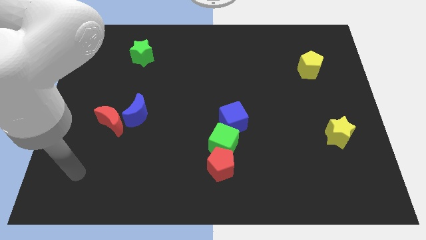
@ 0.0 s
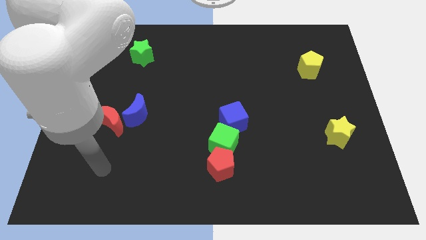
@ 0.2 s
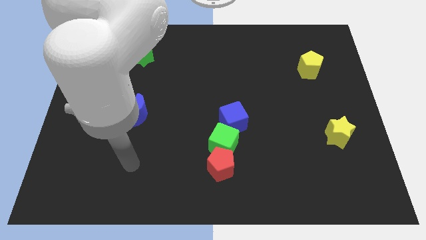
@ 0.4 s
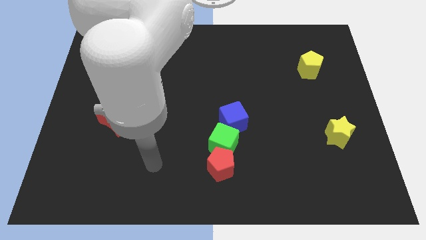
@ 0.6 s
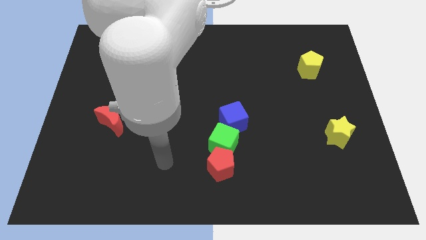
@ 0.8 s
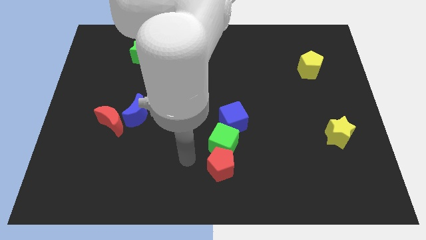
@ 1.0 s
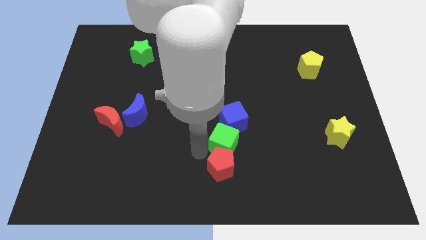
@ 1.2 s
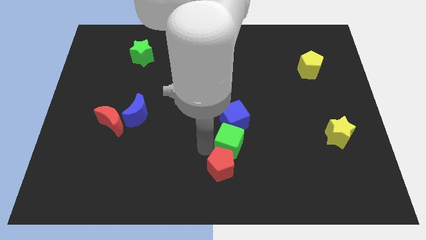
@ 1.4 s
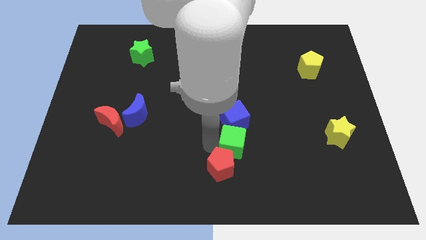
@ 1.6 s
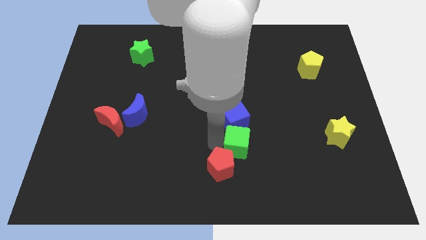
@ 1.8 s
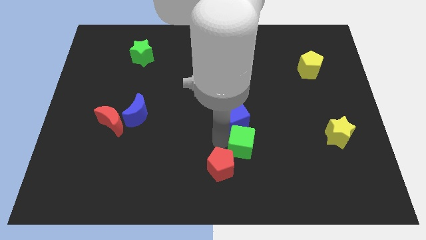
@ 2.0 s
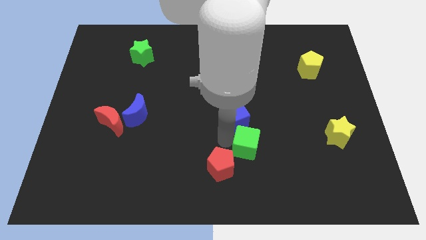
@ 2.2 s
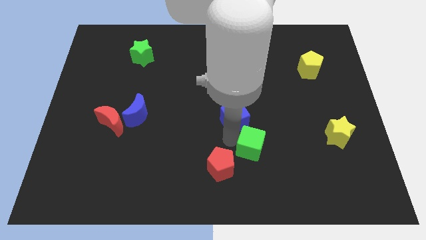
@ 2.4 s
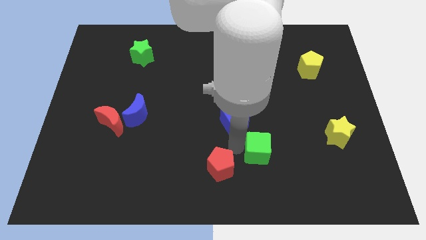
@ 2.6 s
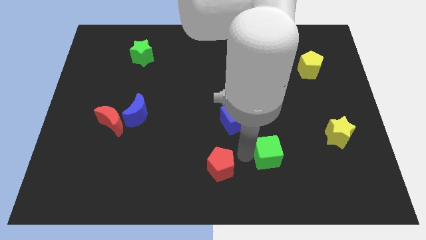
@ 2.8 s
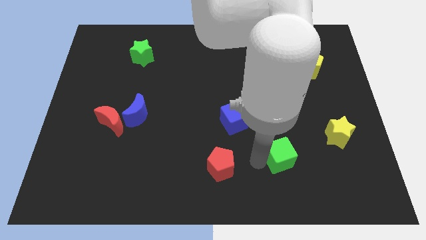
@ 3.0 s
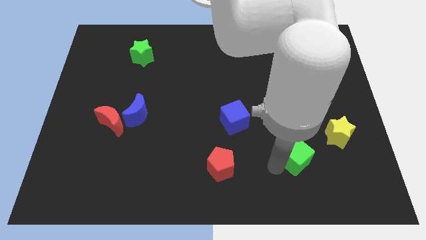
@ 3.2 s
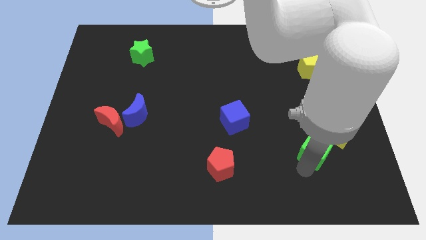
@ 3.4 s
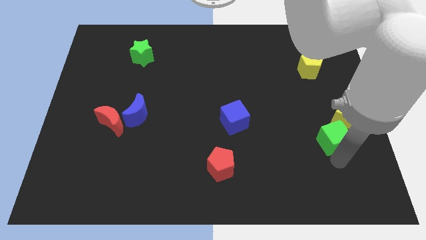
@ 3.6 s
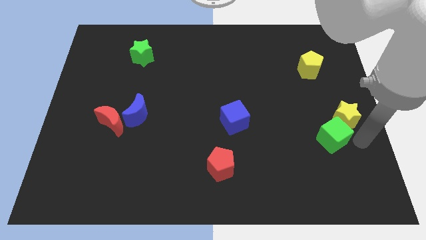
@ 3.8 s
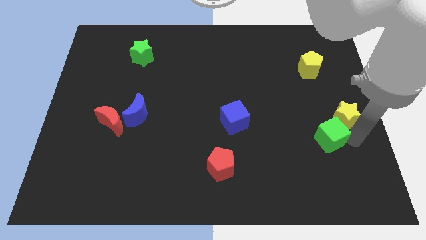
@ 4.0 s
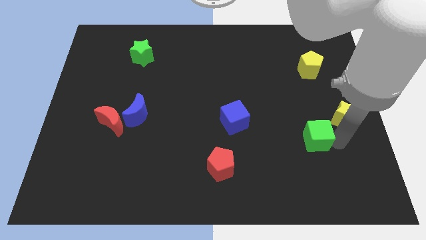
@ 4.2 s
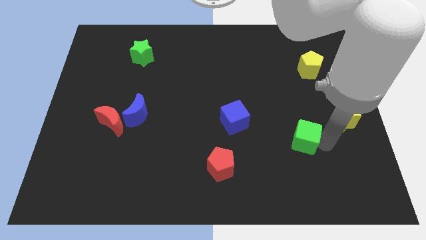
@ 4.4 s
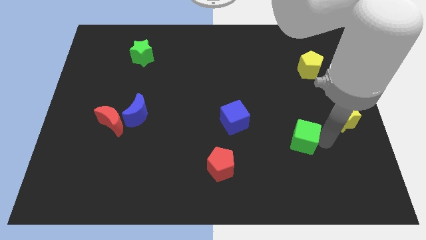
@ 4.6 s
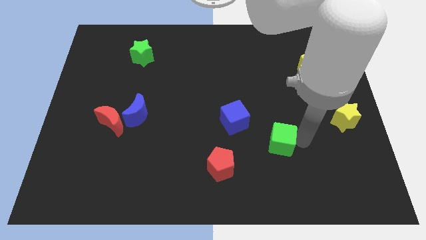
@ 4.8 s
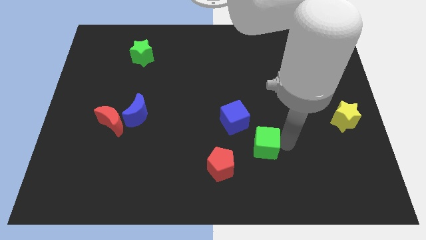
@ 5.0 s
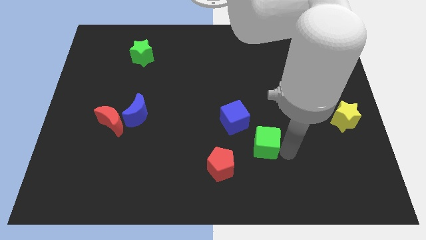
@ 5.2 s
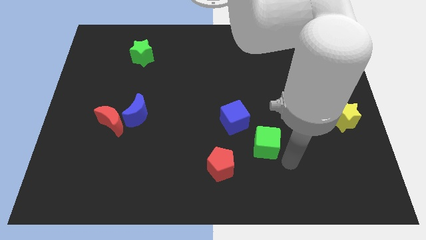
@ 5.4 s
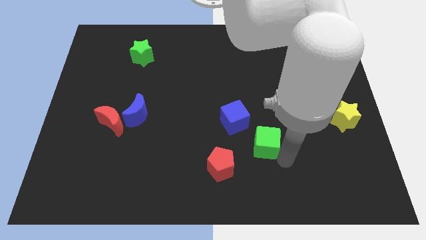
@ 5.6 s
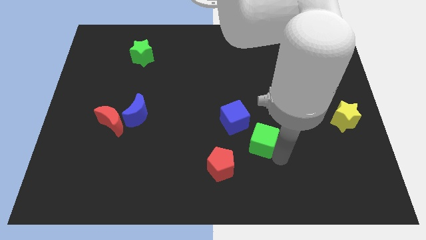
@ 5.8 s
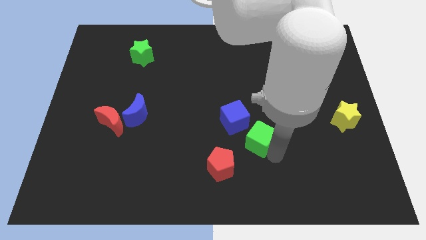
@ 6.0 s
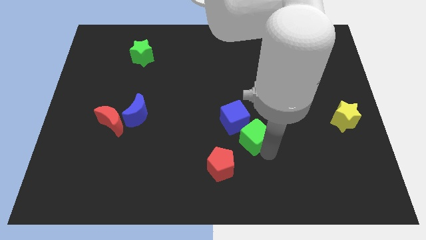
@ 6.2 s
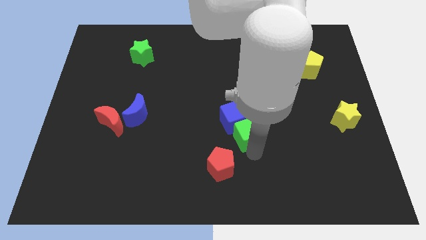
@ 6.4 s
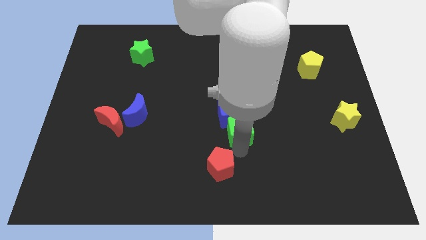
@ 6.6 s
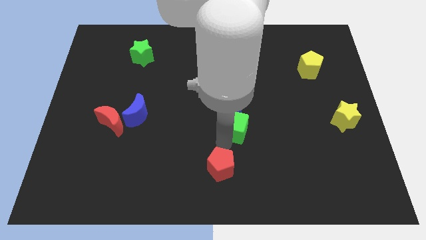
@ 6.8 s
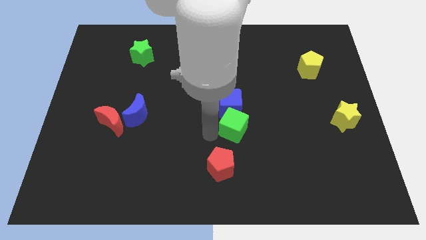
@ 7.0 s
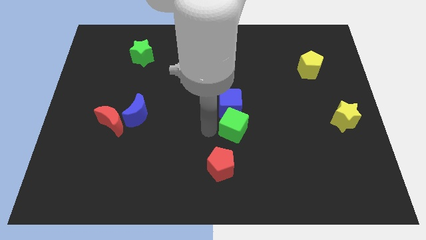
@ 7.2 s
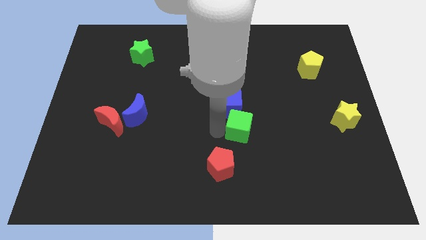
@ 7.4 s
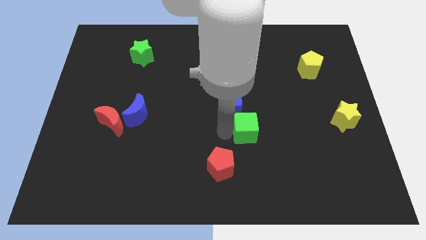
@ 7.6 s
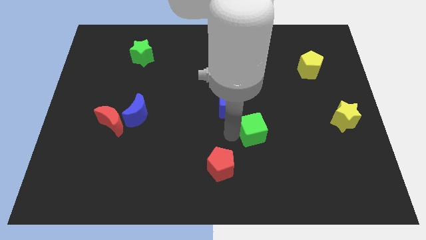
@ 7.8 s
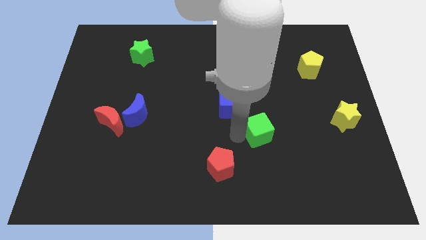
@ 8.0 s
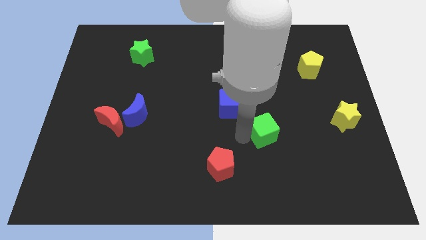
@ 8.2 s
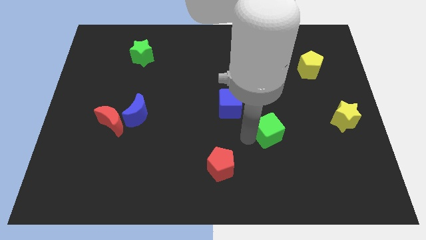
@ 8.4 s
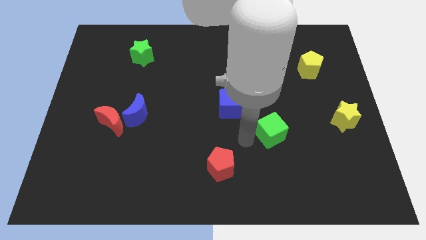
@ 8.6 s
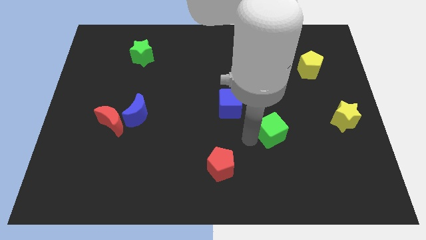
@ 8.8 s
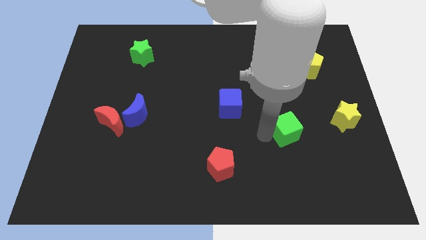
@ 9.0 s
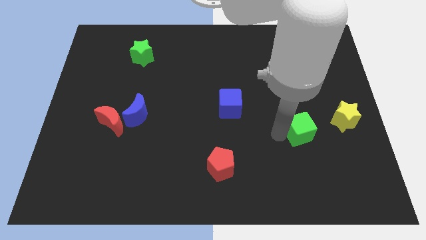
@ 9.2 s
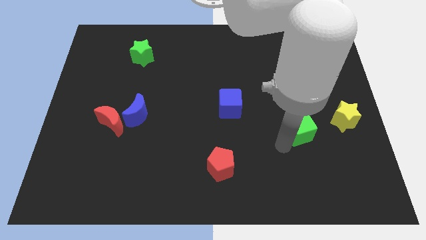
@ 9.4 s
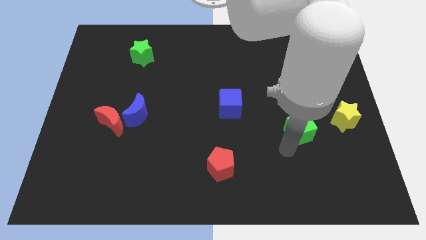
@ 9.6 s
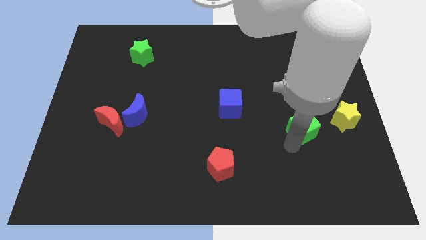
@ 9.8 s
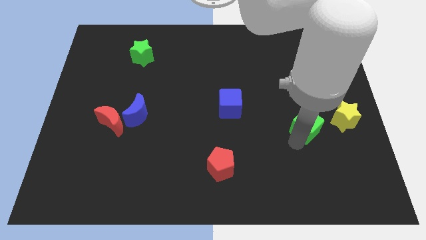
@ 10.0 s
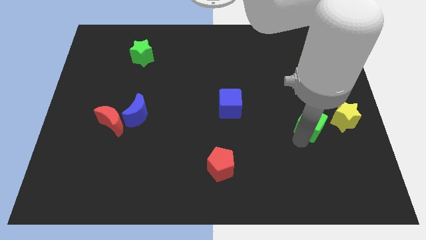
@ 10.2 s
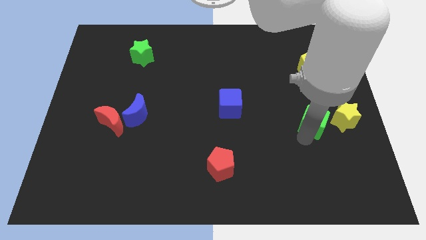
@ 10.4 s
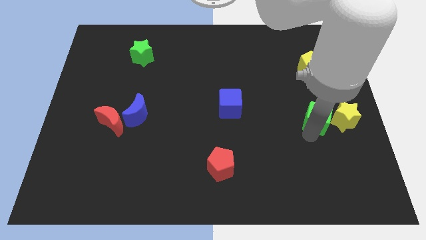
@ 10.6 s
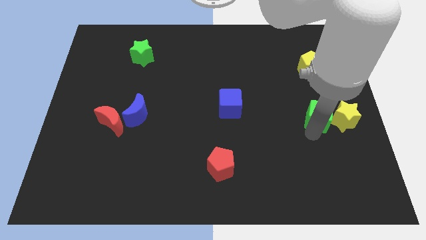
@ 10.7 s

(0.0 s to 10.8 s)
put the green cube to the bottom side of the yellow pentagon

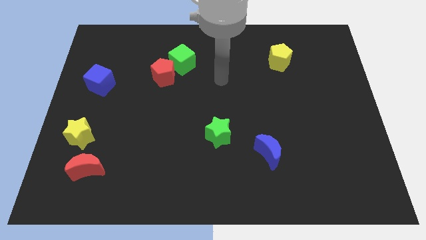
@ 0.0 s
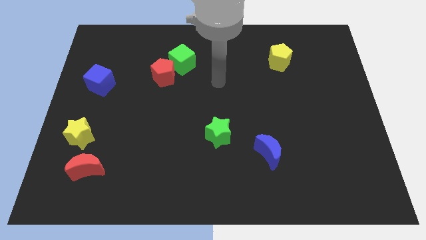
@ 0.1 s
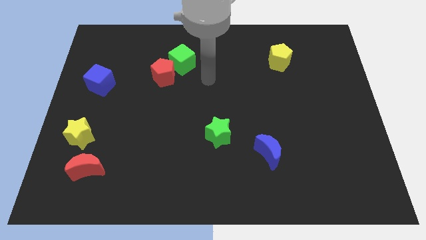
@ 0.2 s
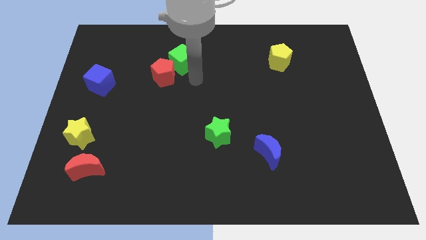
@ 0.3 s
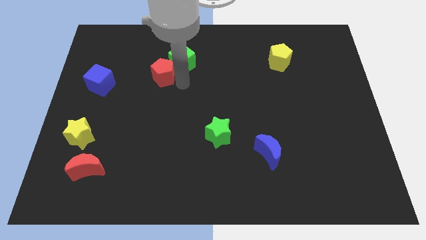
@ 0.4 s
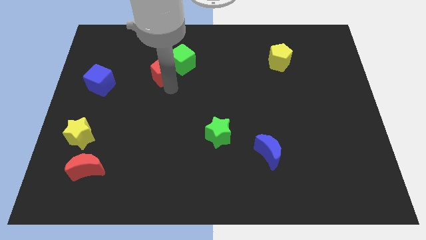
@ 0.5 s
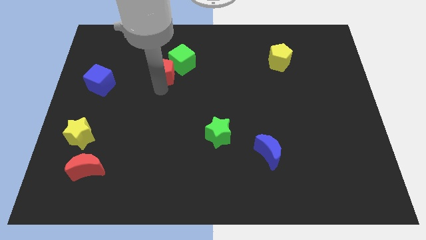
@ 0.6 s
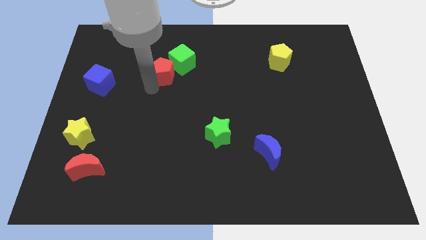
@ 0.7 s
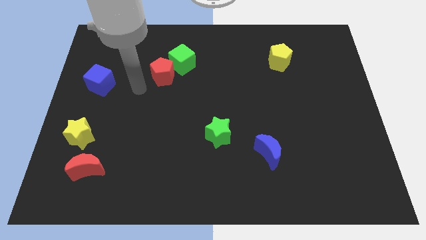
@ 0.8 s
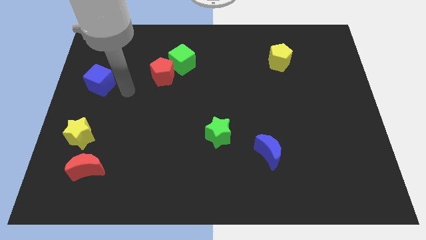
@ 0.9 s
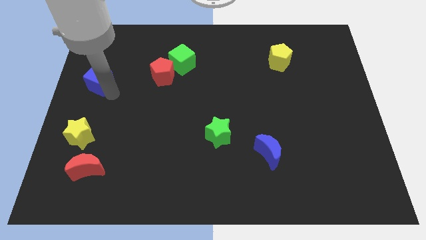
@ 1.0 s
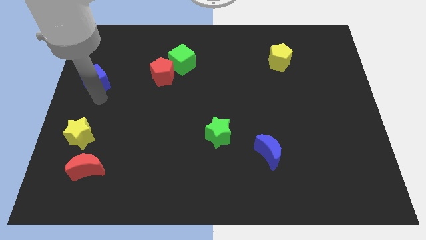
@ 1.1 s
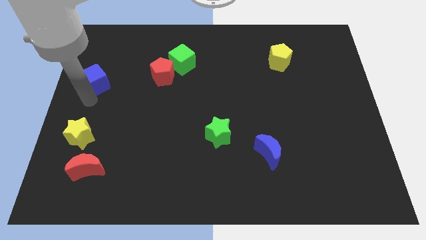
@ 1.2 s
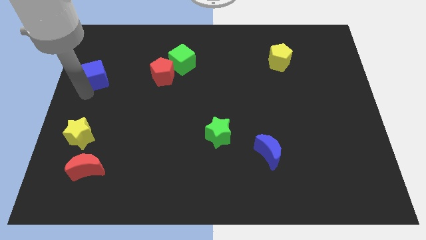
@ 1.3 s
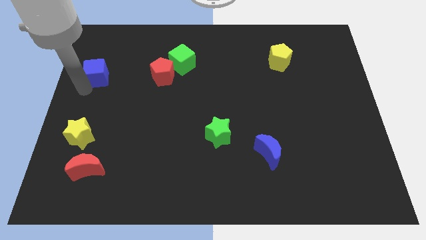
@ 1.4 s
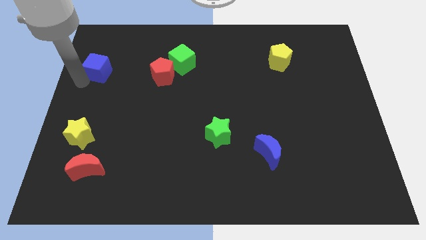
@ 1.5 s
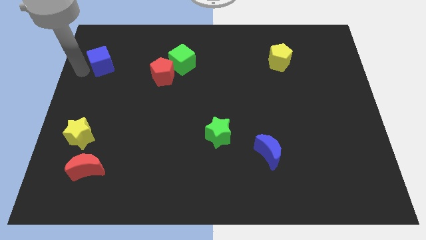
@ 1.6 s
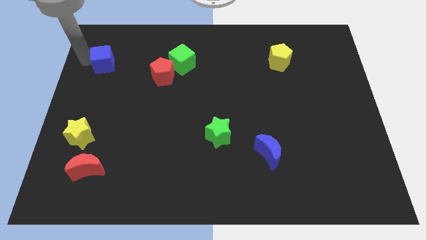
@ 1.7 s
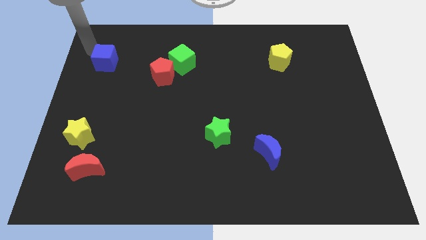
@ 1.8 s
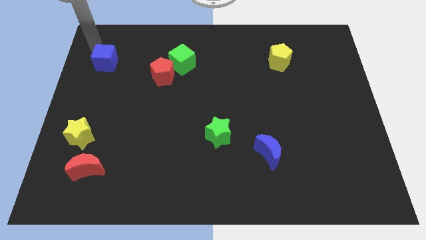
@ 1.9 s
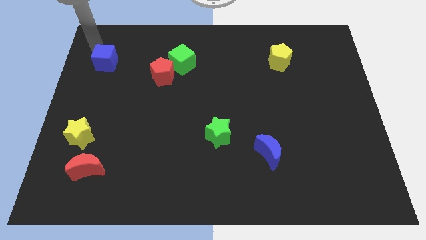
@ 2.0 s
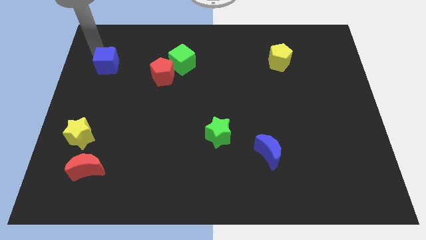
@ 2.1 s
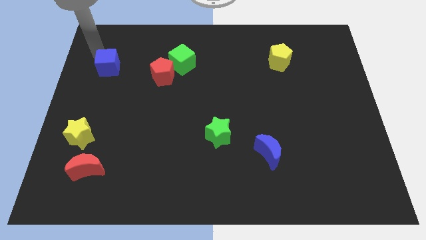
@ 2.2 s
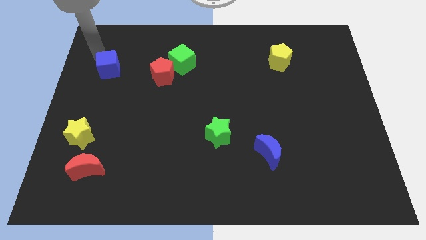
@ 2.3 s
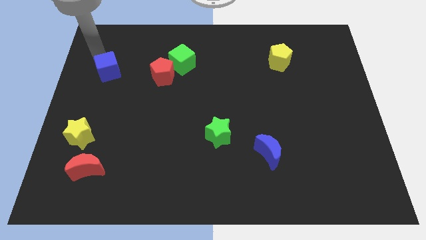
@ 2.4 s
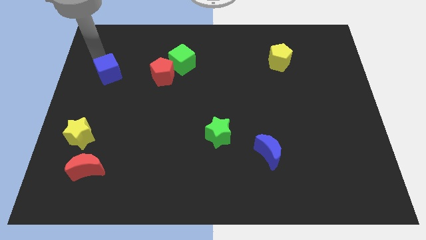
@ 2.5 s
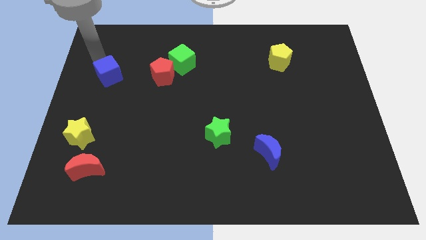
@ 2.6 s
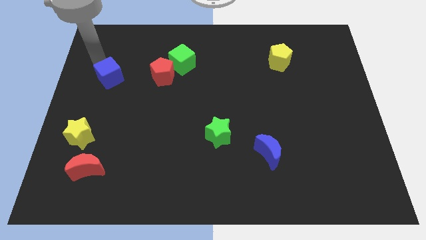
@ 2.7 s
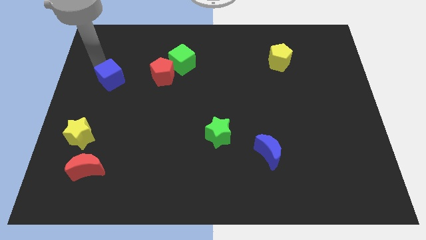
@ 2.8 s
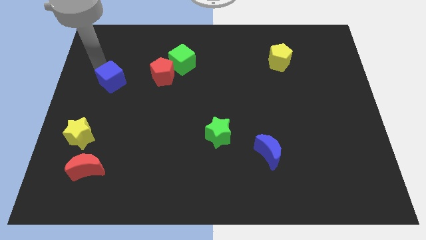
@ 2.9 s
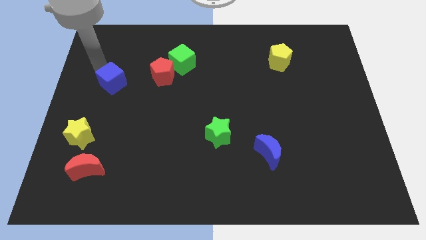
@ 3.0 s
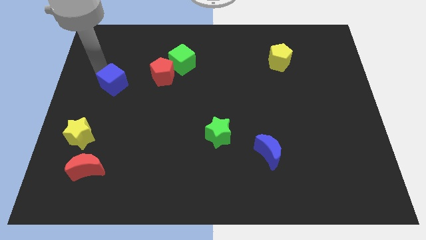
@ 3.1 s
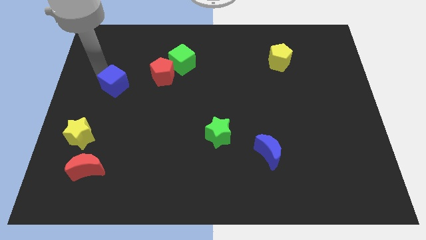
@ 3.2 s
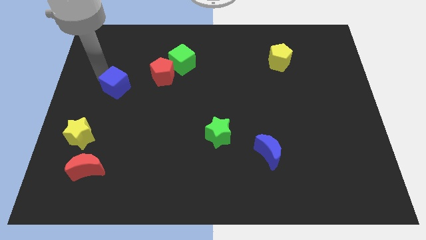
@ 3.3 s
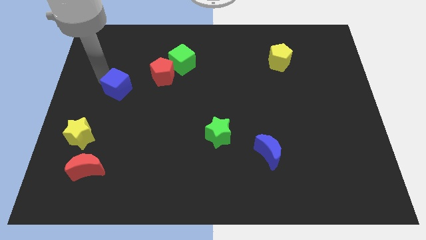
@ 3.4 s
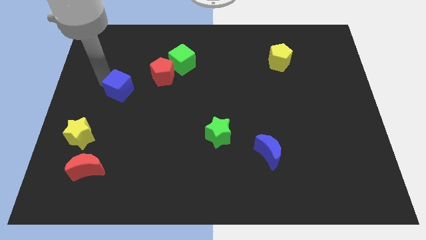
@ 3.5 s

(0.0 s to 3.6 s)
move the blue cube diagonally down and to the left of the red pentagon
